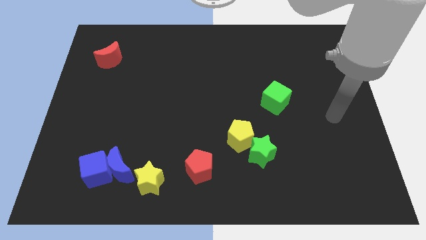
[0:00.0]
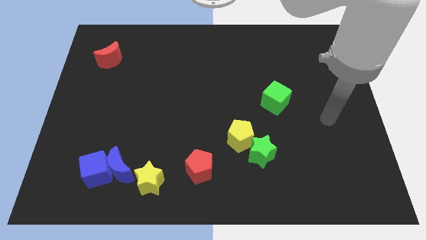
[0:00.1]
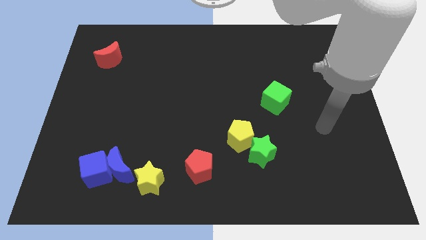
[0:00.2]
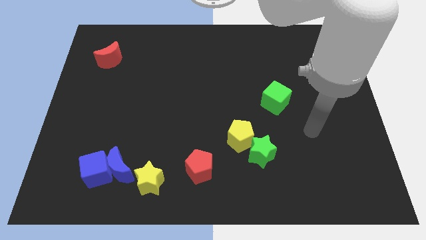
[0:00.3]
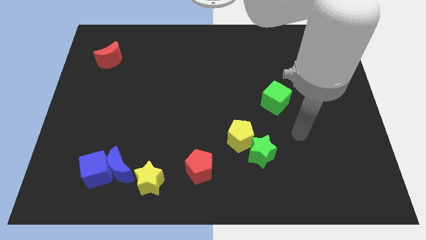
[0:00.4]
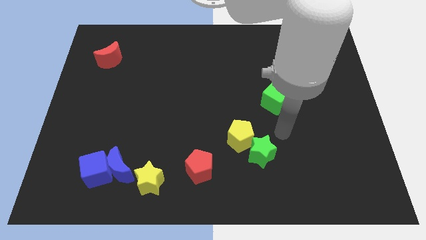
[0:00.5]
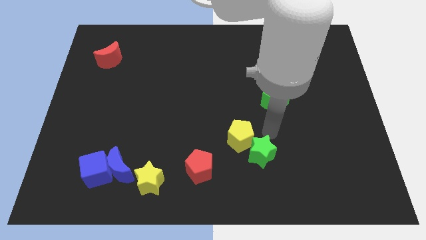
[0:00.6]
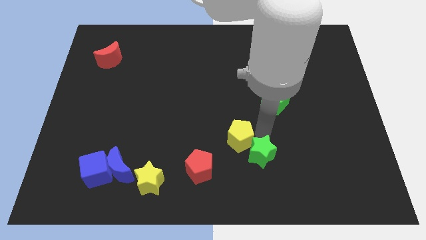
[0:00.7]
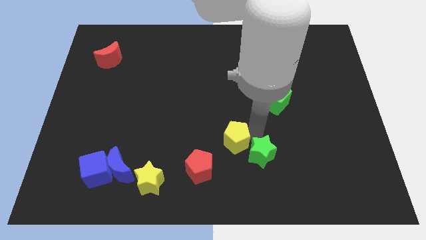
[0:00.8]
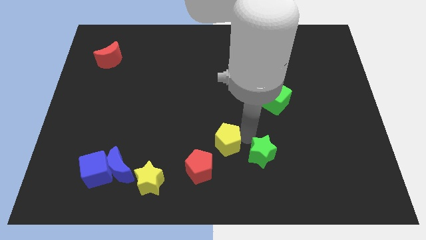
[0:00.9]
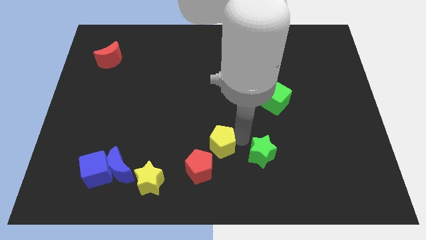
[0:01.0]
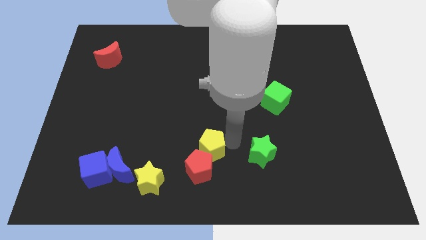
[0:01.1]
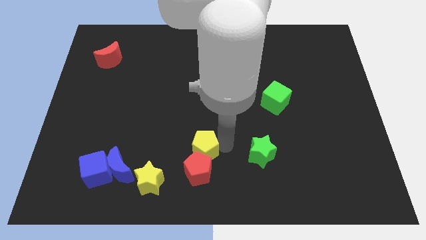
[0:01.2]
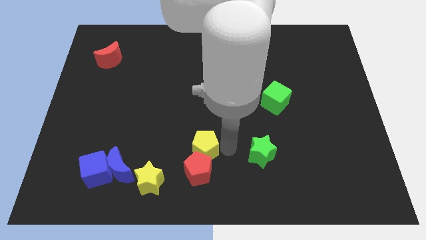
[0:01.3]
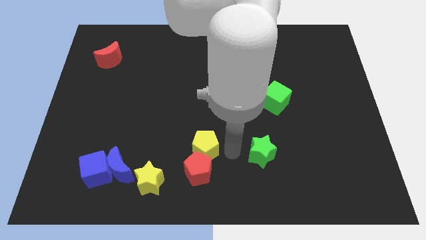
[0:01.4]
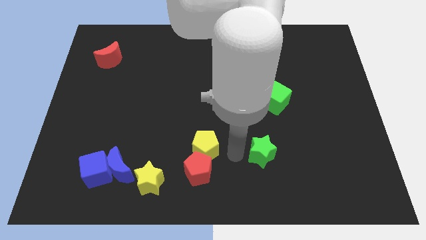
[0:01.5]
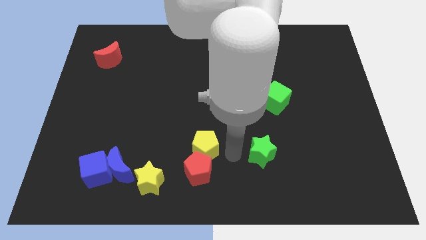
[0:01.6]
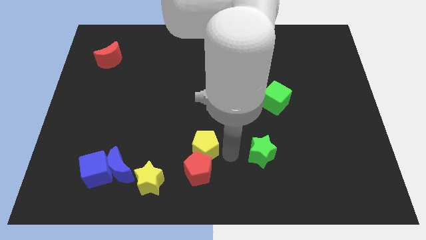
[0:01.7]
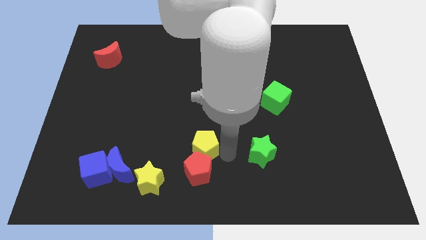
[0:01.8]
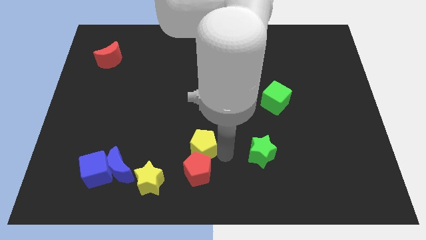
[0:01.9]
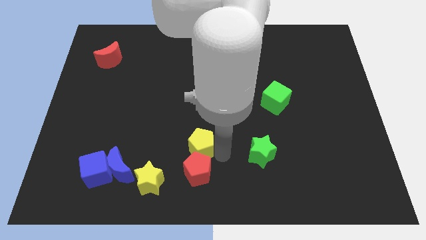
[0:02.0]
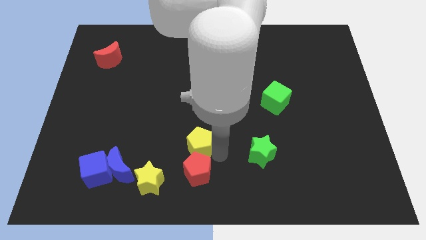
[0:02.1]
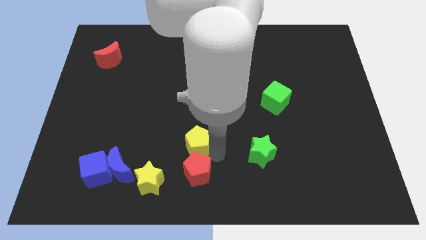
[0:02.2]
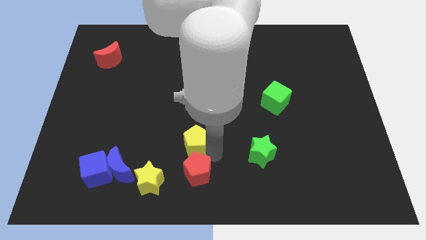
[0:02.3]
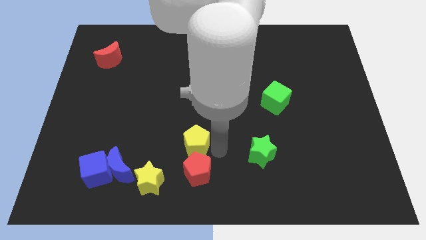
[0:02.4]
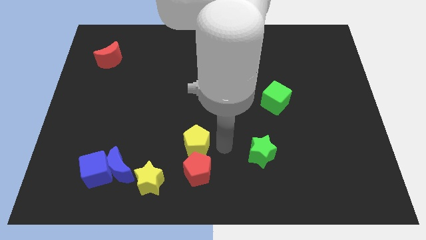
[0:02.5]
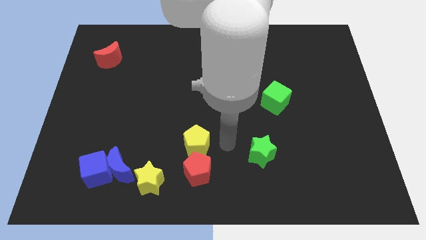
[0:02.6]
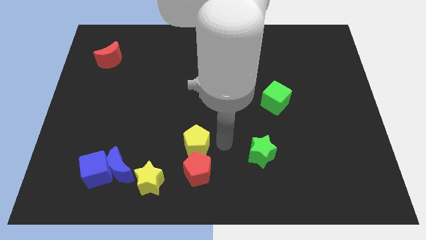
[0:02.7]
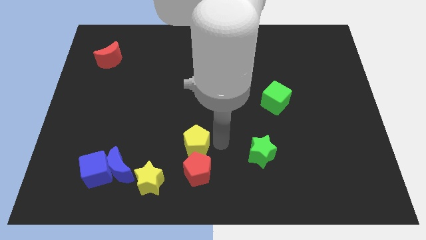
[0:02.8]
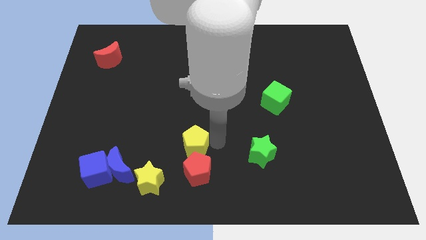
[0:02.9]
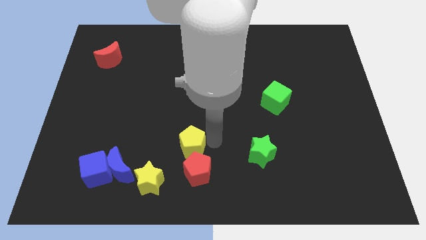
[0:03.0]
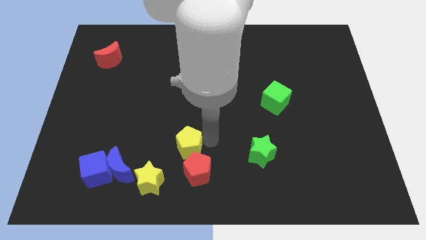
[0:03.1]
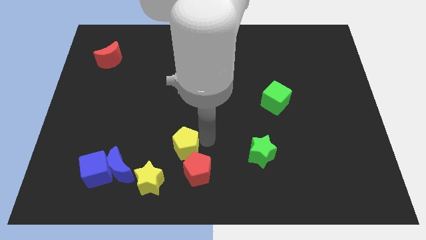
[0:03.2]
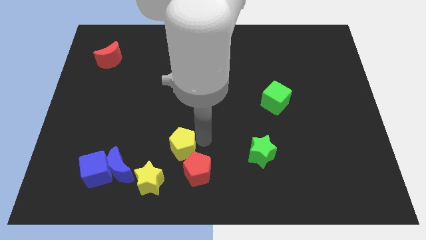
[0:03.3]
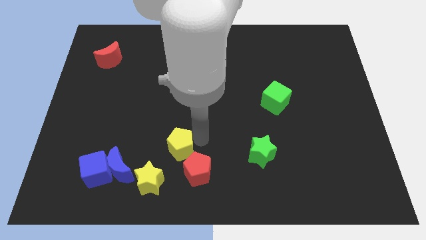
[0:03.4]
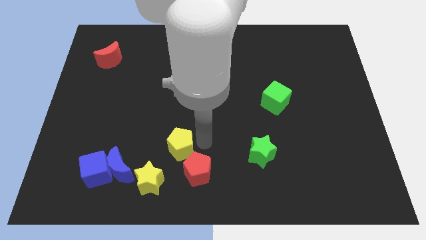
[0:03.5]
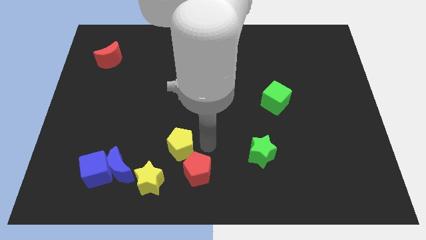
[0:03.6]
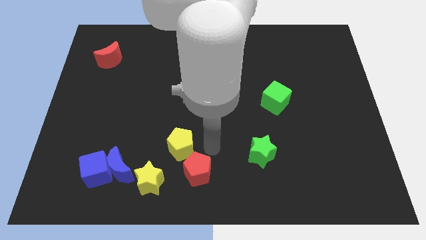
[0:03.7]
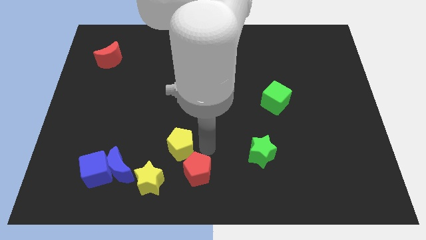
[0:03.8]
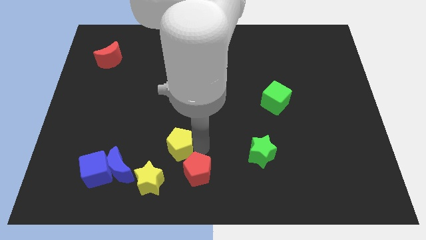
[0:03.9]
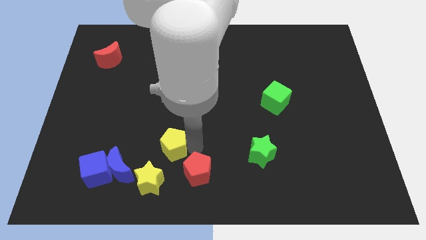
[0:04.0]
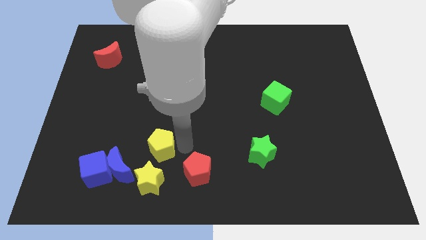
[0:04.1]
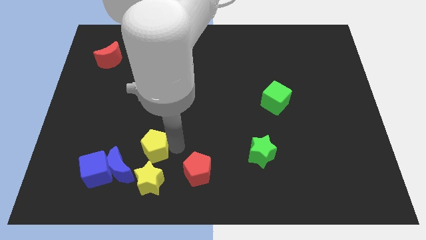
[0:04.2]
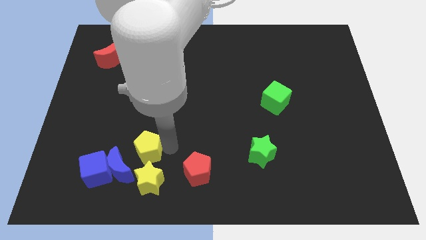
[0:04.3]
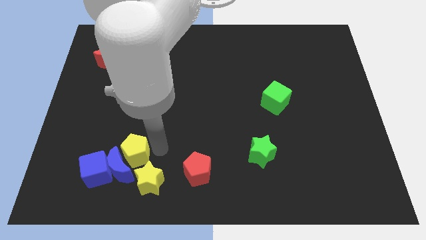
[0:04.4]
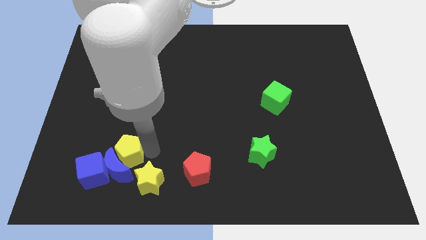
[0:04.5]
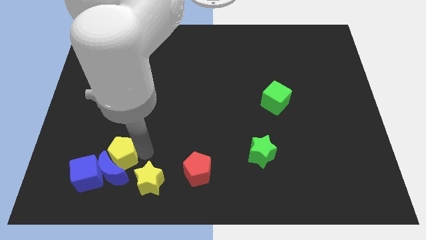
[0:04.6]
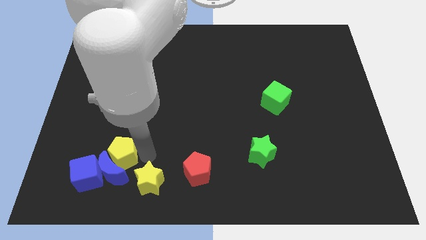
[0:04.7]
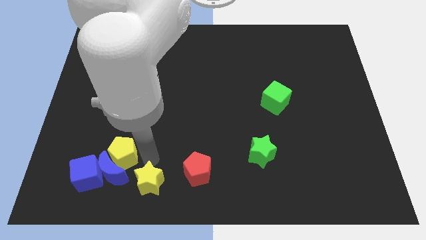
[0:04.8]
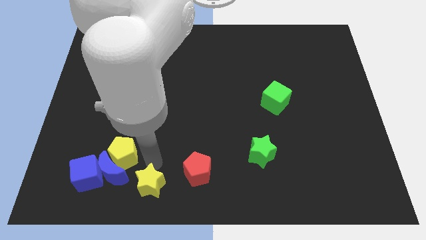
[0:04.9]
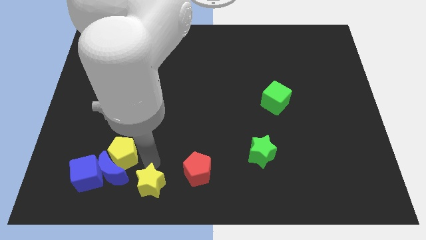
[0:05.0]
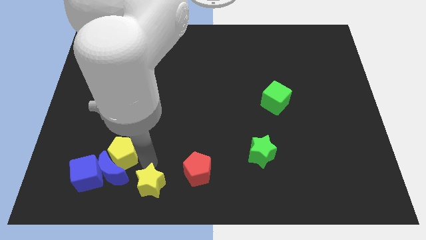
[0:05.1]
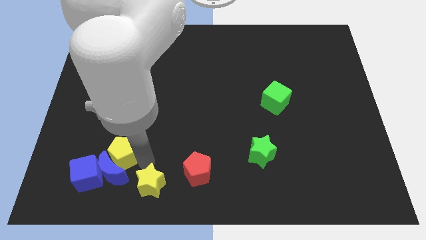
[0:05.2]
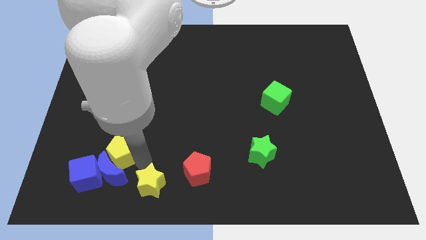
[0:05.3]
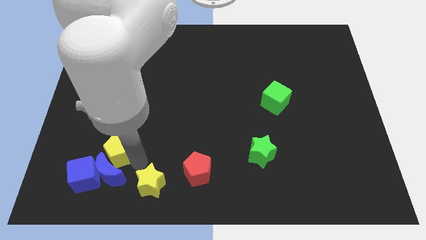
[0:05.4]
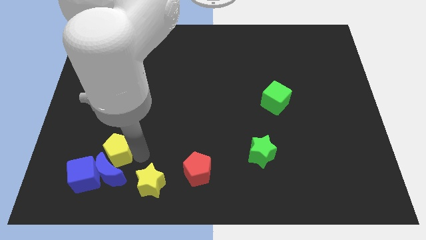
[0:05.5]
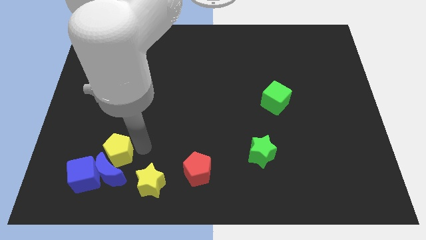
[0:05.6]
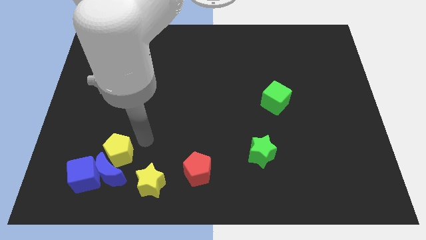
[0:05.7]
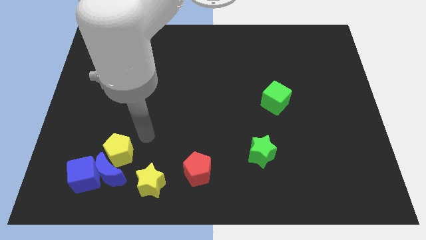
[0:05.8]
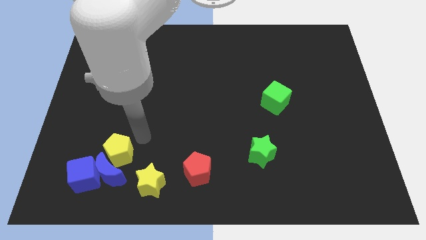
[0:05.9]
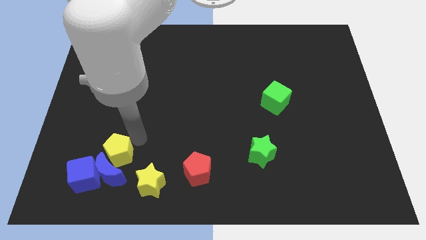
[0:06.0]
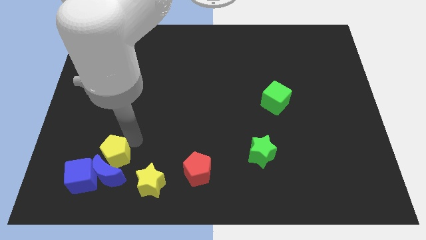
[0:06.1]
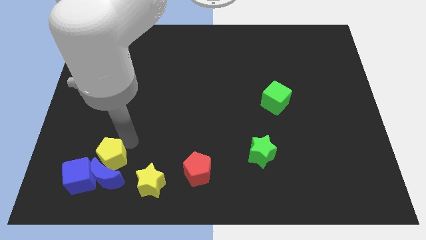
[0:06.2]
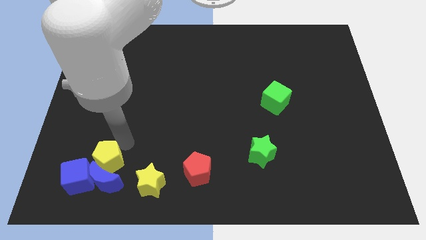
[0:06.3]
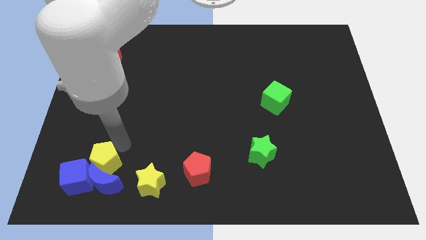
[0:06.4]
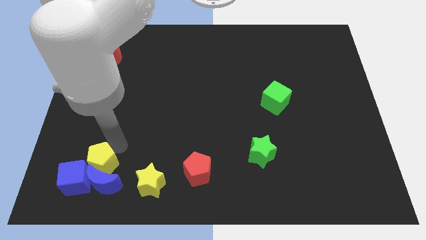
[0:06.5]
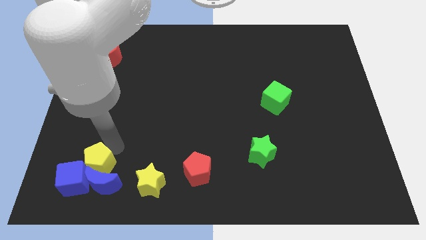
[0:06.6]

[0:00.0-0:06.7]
push the yellow pentagon close to the blue cube
